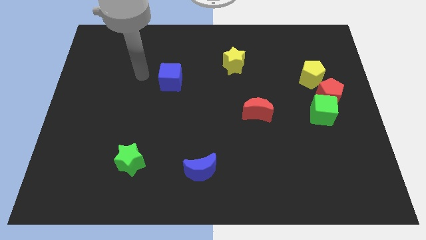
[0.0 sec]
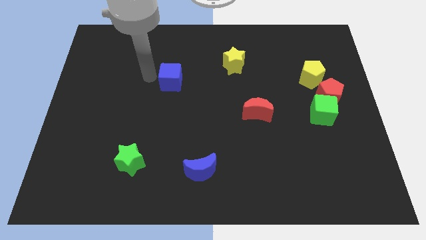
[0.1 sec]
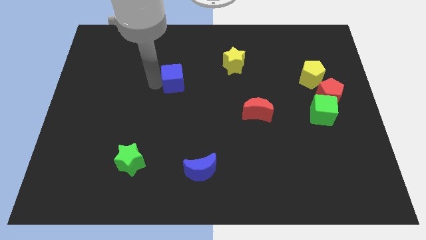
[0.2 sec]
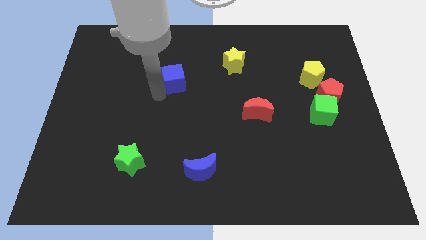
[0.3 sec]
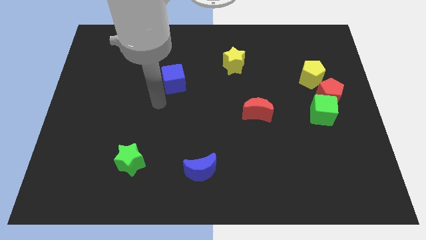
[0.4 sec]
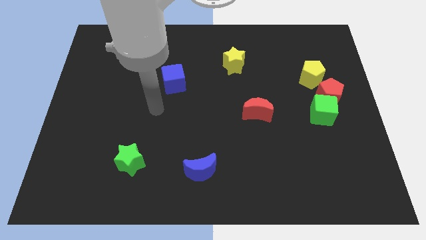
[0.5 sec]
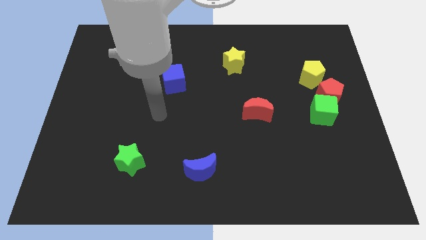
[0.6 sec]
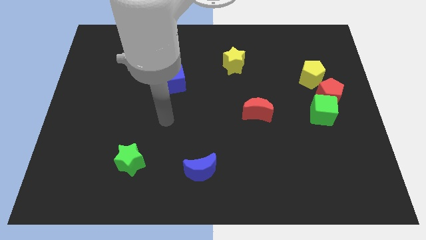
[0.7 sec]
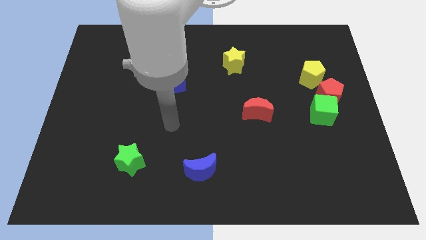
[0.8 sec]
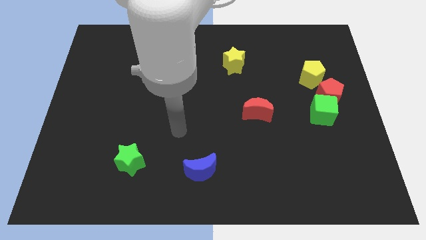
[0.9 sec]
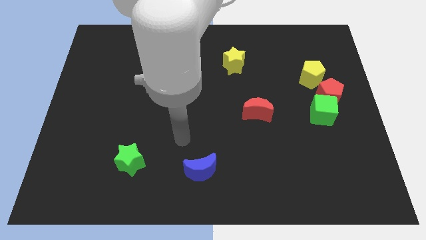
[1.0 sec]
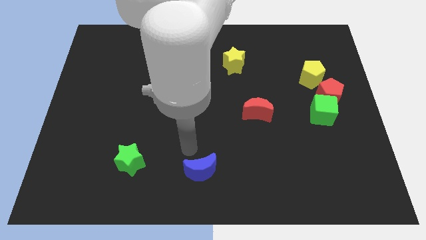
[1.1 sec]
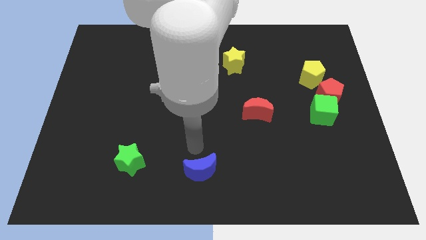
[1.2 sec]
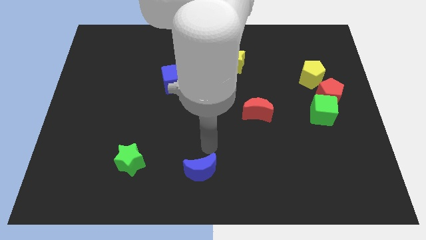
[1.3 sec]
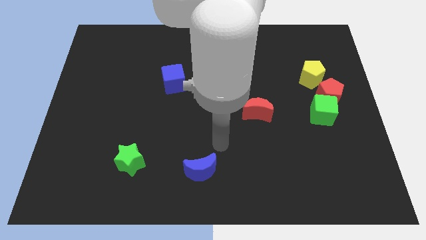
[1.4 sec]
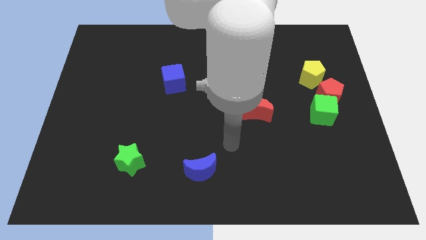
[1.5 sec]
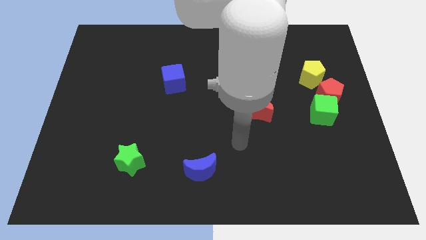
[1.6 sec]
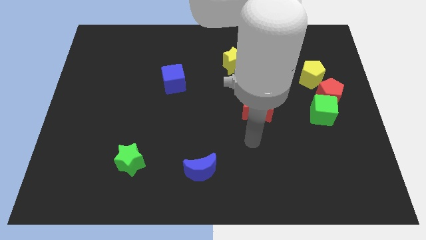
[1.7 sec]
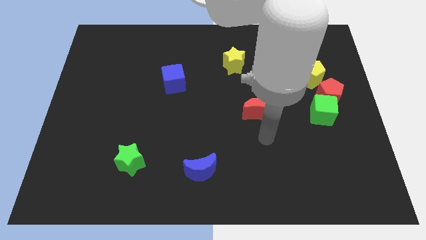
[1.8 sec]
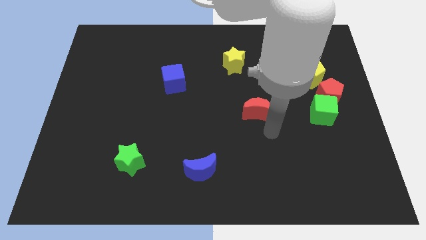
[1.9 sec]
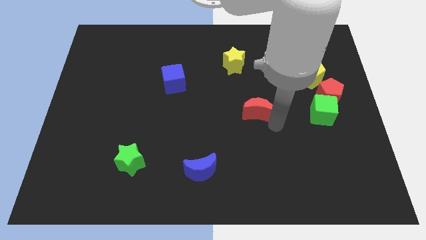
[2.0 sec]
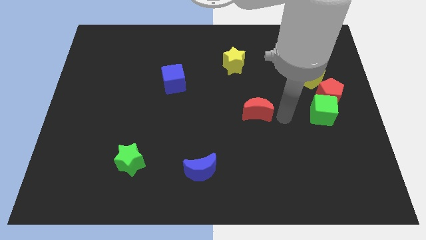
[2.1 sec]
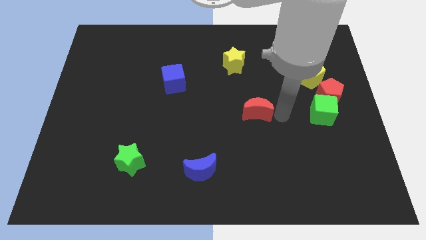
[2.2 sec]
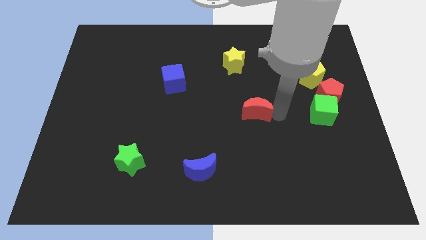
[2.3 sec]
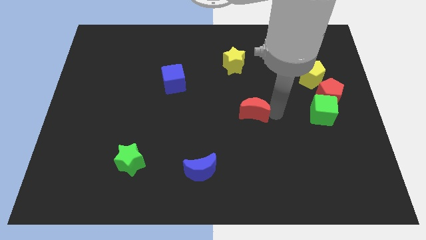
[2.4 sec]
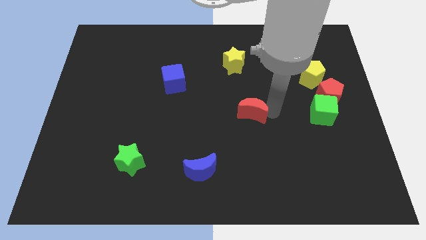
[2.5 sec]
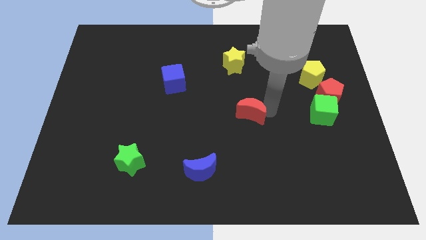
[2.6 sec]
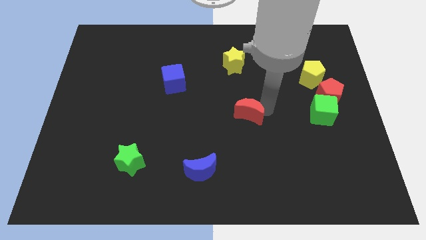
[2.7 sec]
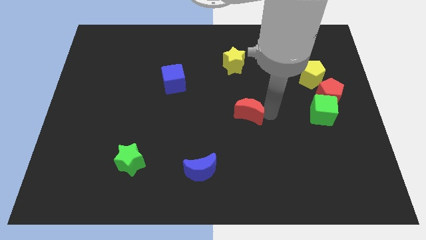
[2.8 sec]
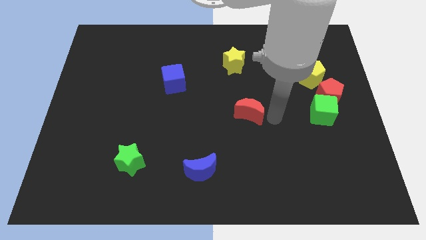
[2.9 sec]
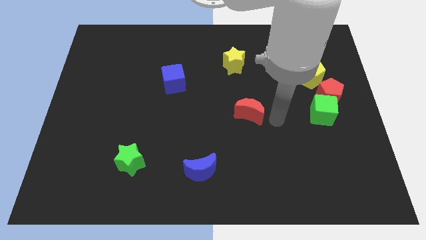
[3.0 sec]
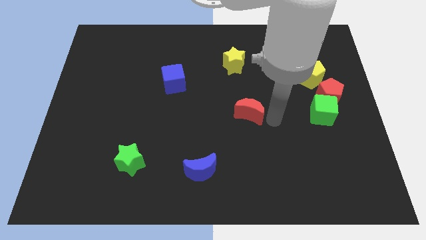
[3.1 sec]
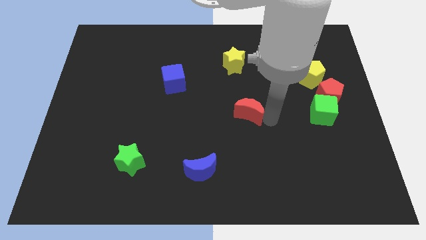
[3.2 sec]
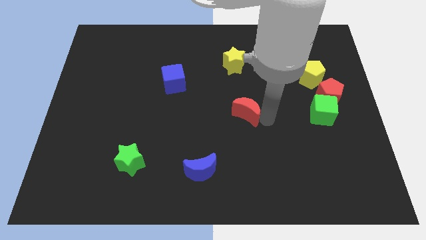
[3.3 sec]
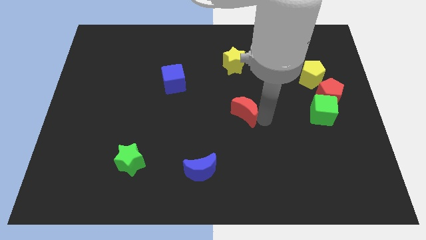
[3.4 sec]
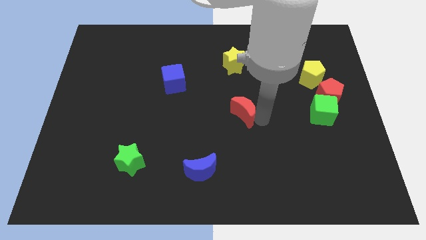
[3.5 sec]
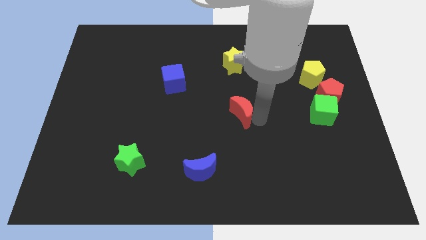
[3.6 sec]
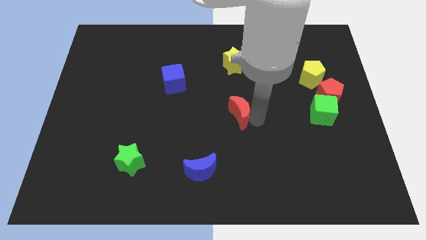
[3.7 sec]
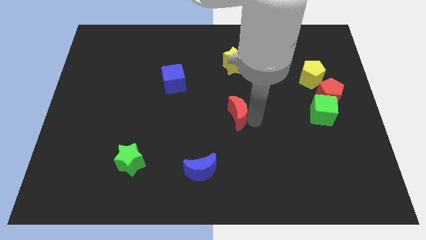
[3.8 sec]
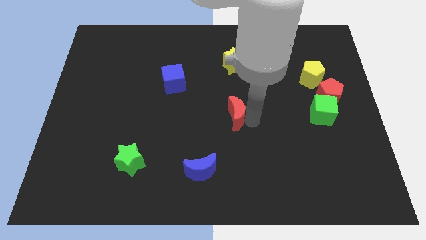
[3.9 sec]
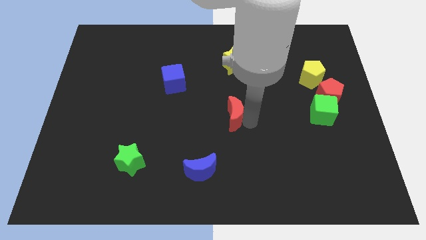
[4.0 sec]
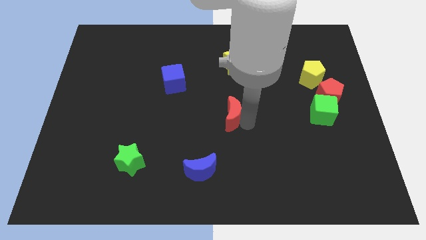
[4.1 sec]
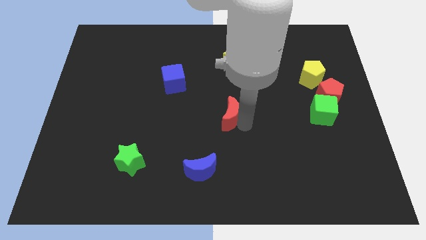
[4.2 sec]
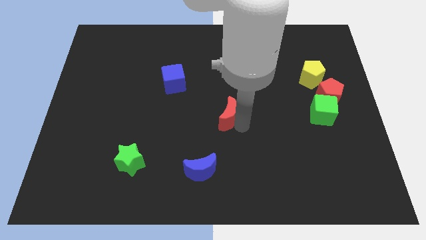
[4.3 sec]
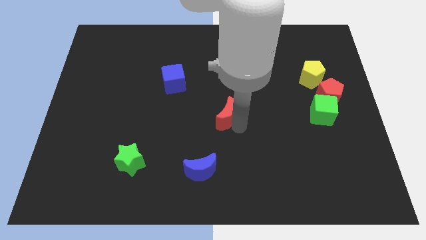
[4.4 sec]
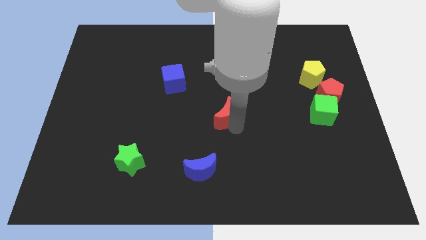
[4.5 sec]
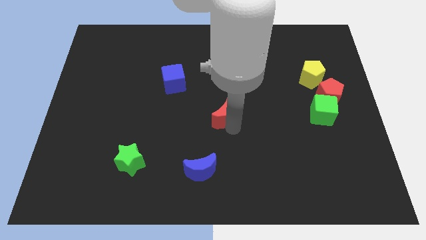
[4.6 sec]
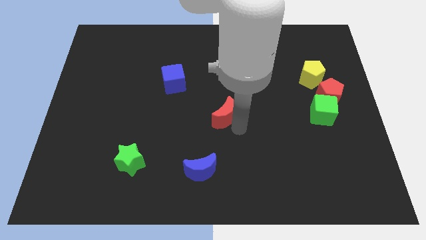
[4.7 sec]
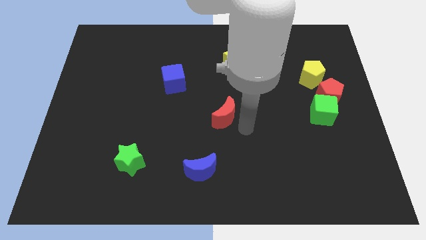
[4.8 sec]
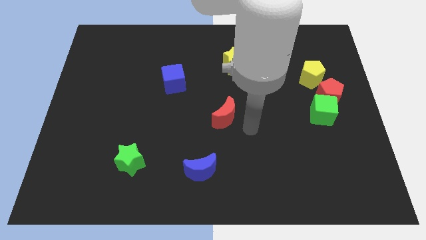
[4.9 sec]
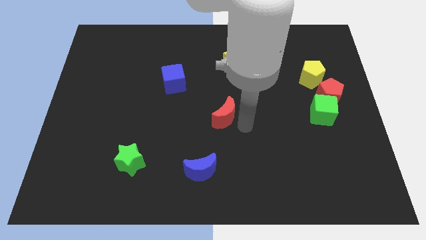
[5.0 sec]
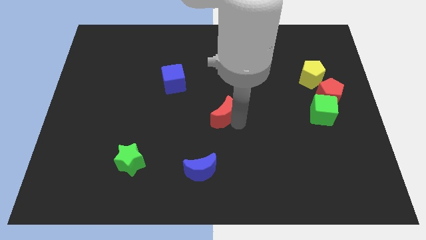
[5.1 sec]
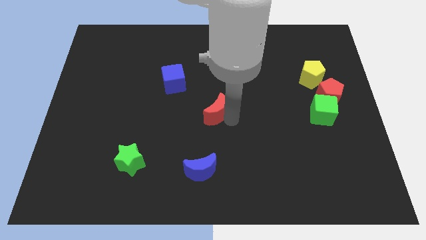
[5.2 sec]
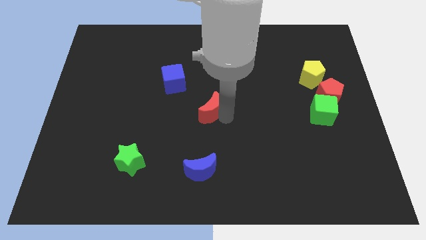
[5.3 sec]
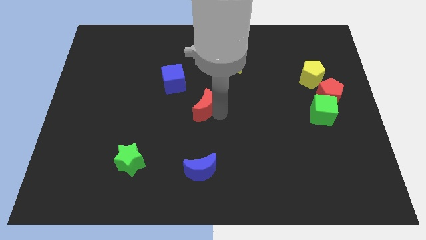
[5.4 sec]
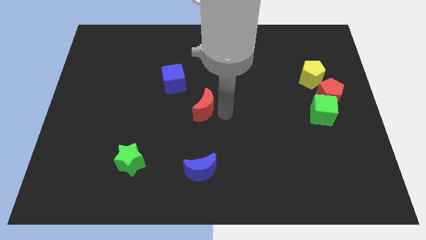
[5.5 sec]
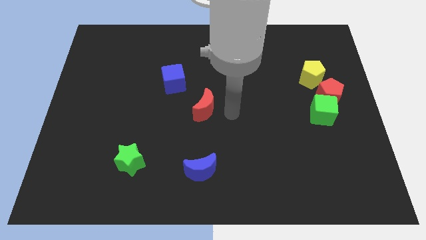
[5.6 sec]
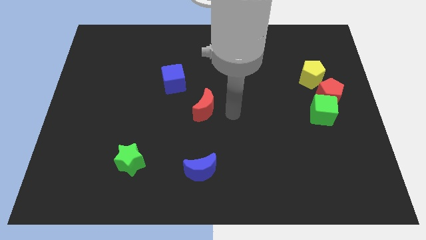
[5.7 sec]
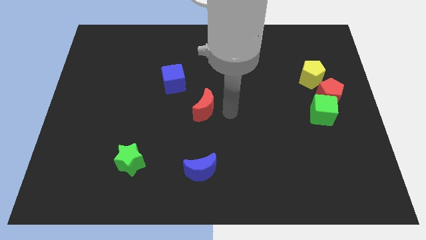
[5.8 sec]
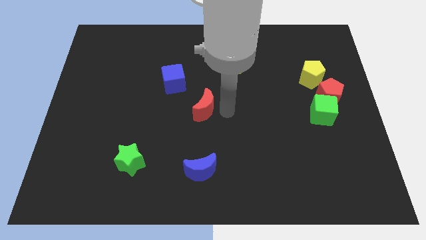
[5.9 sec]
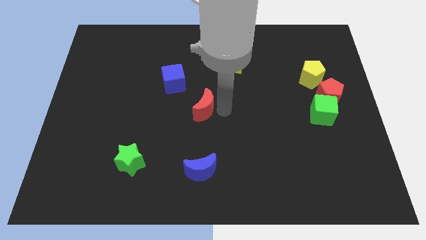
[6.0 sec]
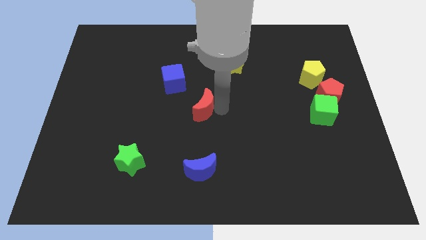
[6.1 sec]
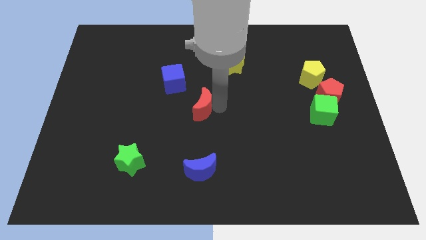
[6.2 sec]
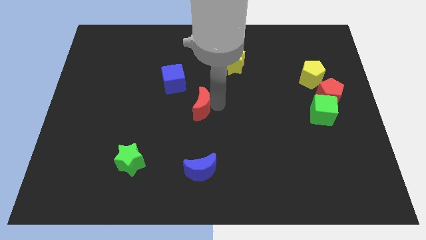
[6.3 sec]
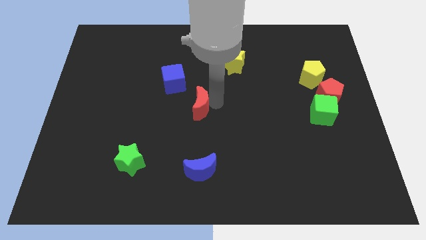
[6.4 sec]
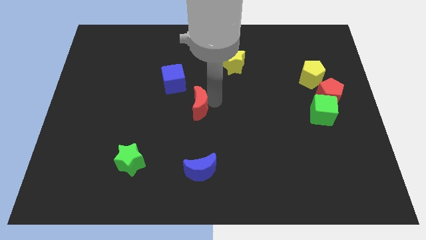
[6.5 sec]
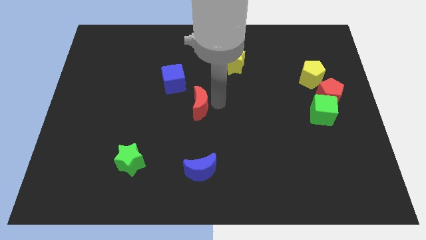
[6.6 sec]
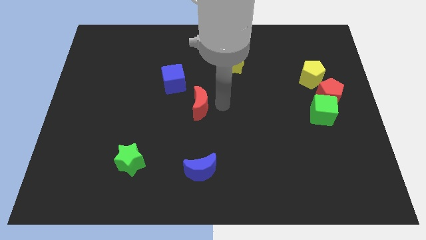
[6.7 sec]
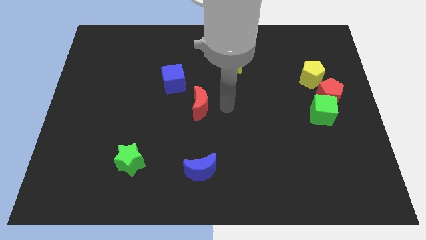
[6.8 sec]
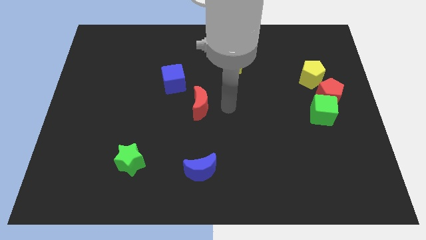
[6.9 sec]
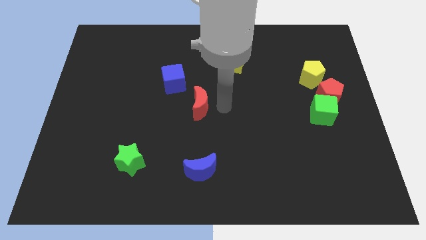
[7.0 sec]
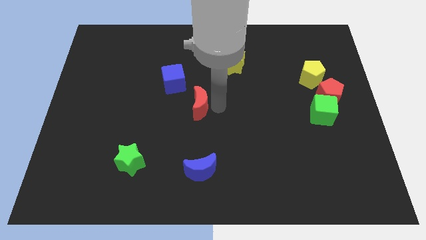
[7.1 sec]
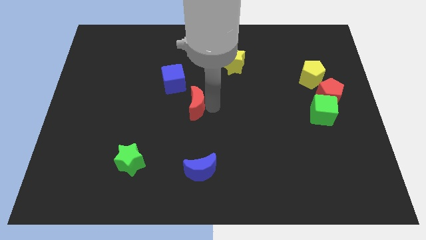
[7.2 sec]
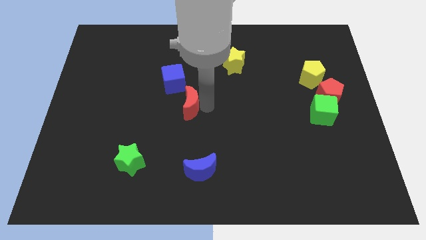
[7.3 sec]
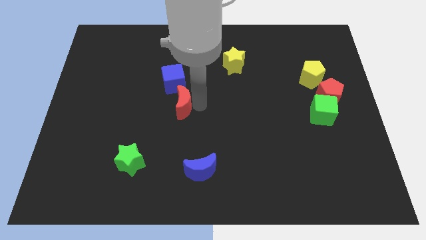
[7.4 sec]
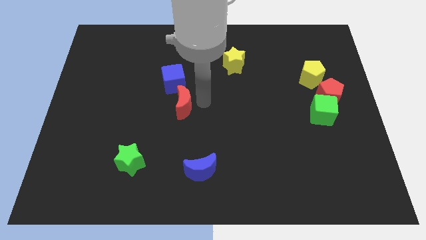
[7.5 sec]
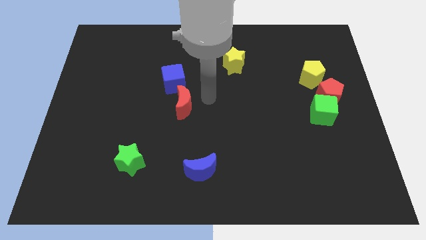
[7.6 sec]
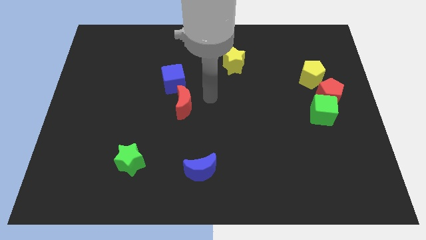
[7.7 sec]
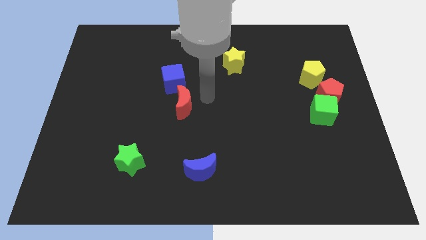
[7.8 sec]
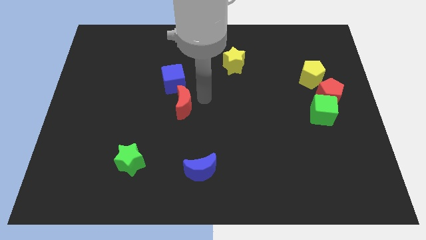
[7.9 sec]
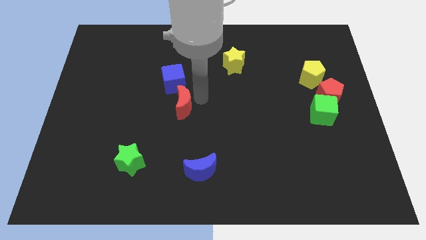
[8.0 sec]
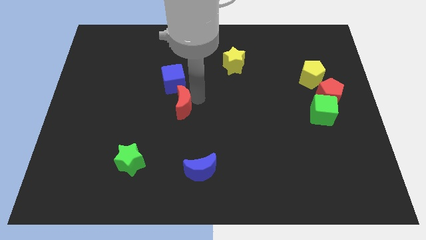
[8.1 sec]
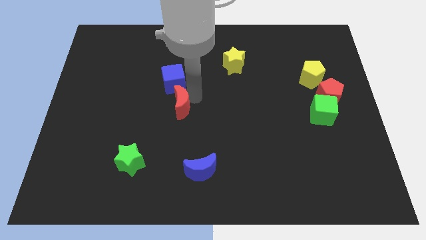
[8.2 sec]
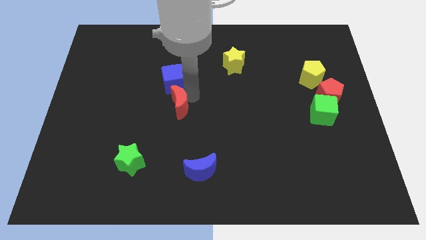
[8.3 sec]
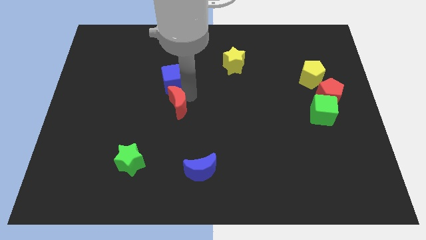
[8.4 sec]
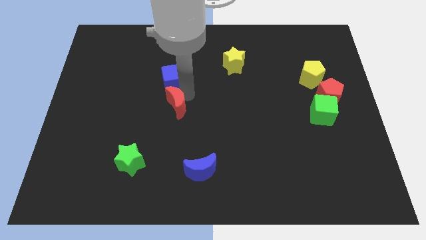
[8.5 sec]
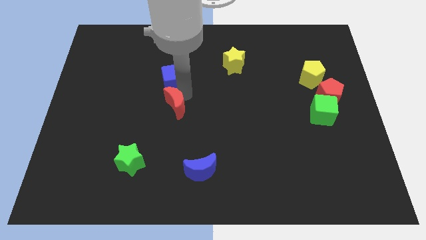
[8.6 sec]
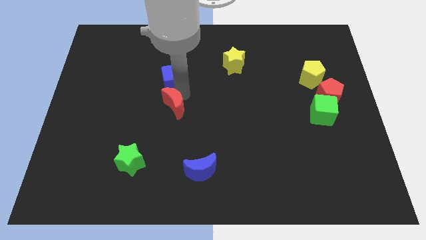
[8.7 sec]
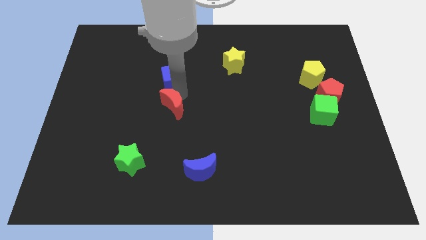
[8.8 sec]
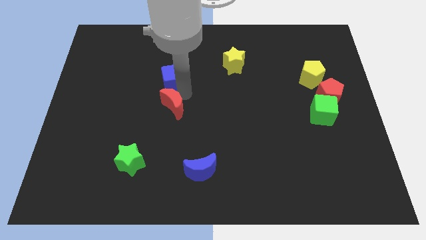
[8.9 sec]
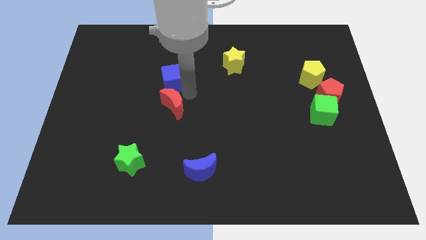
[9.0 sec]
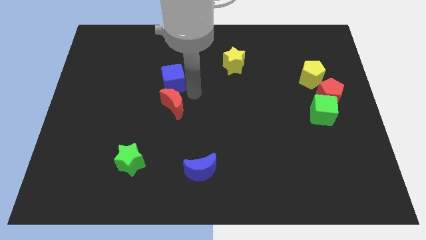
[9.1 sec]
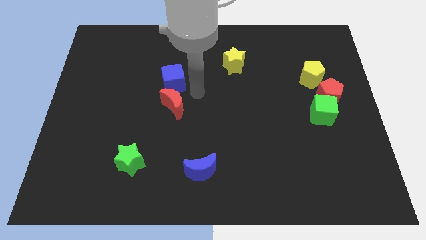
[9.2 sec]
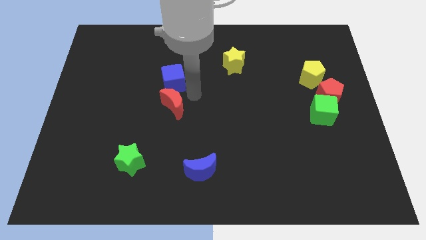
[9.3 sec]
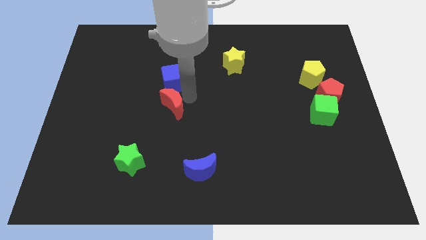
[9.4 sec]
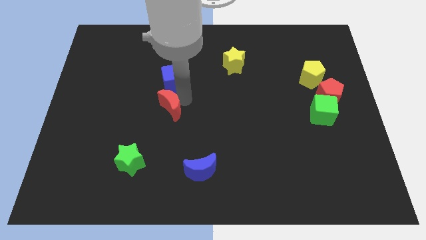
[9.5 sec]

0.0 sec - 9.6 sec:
push the red moon left
